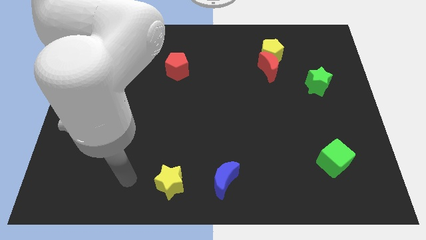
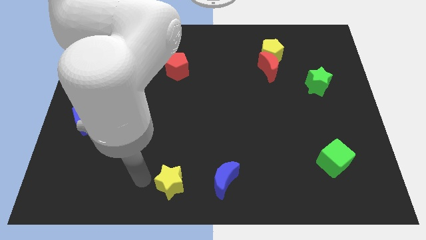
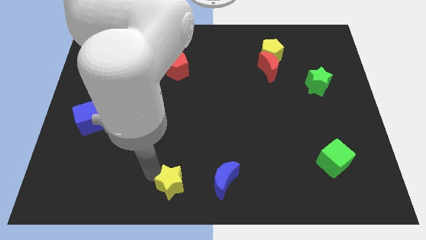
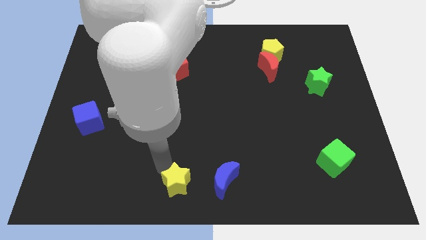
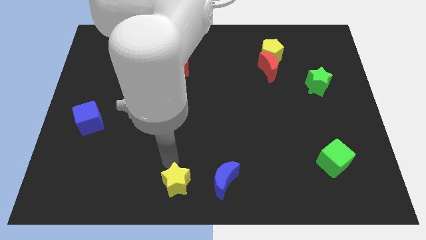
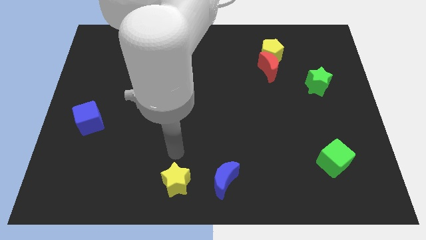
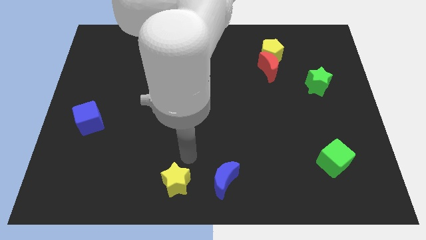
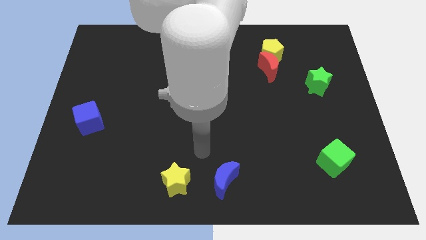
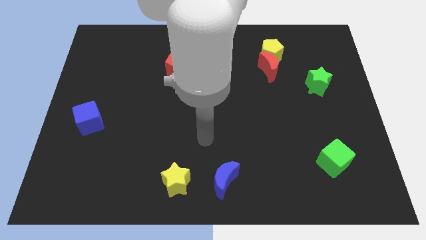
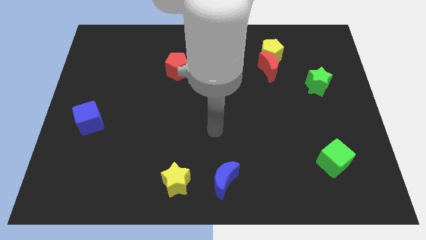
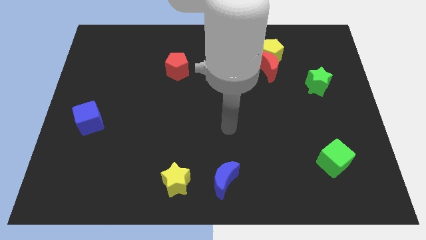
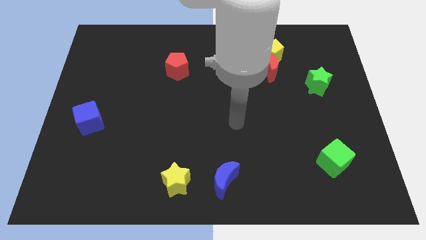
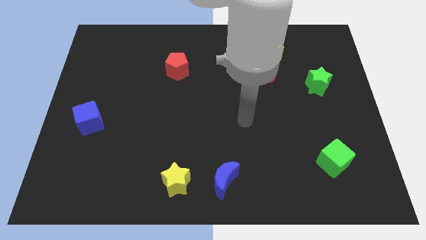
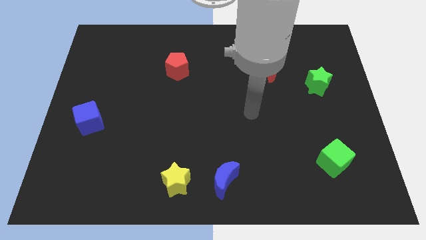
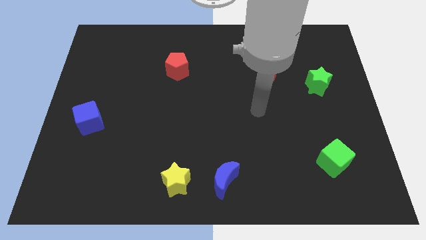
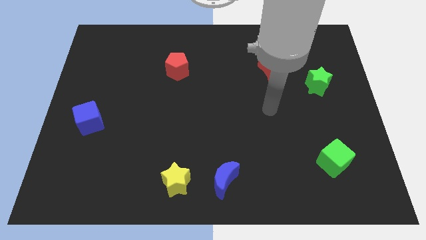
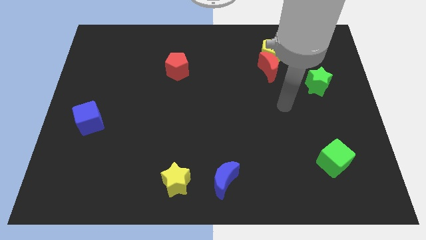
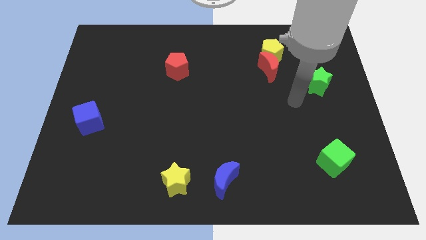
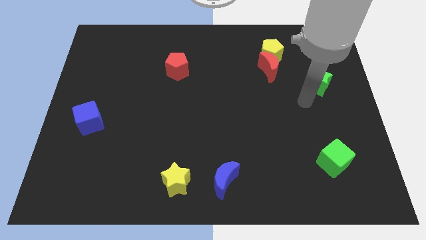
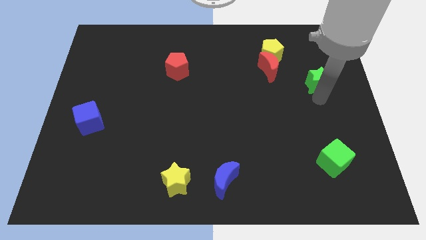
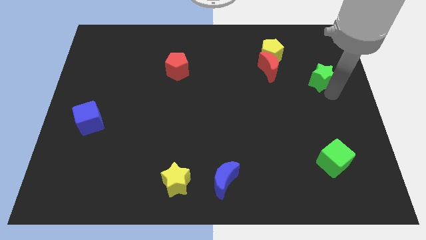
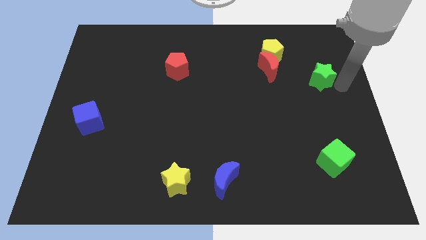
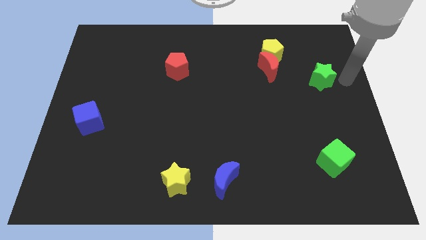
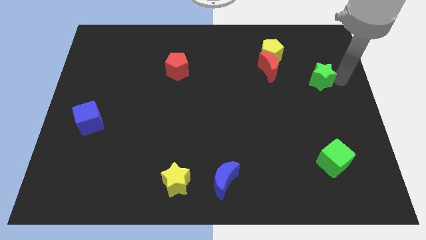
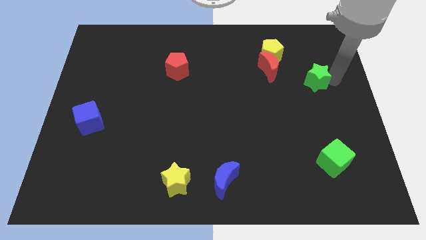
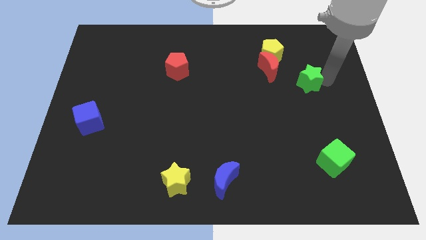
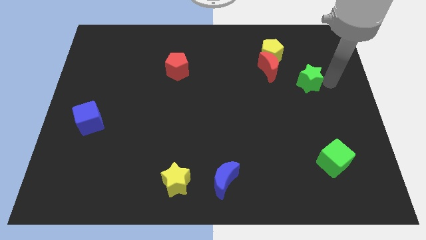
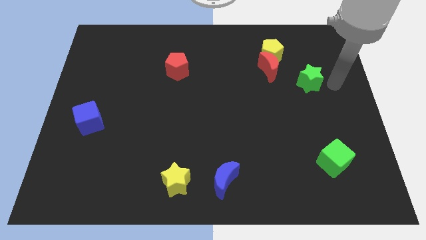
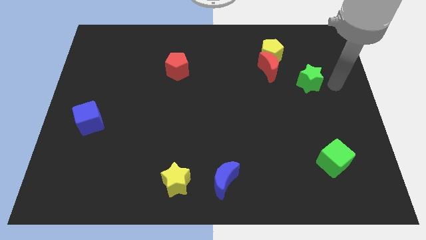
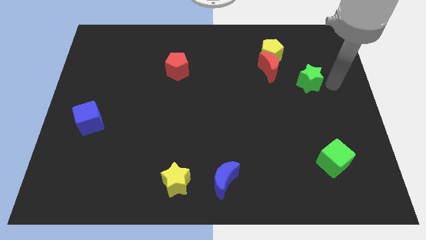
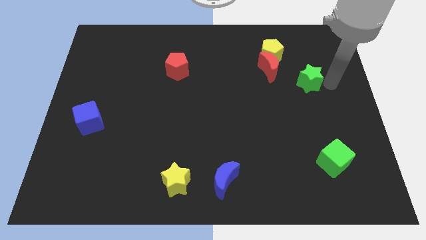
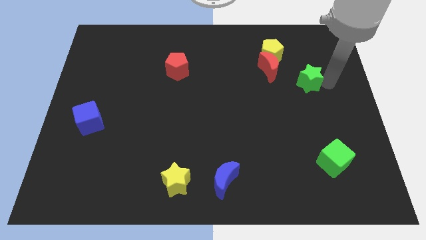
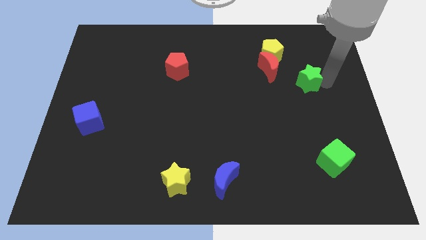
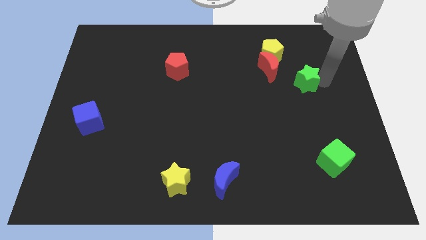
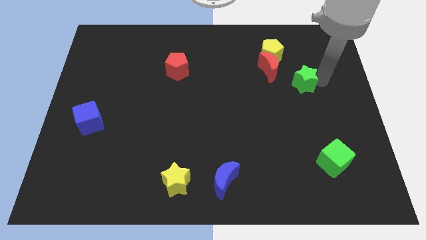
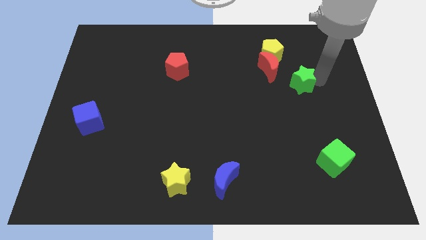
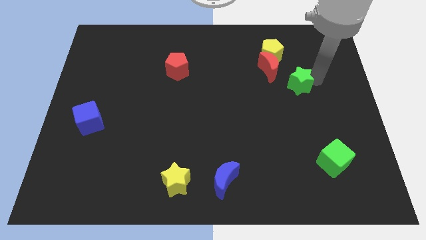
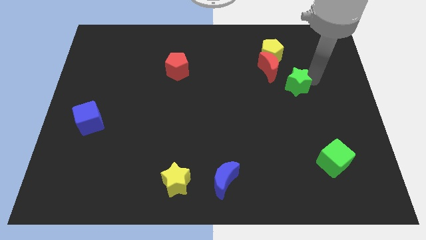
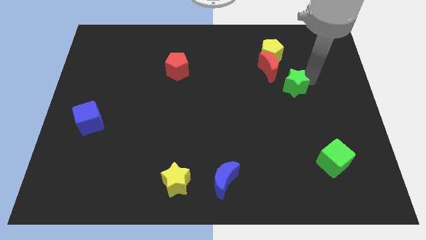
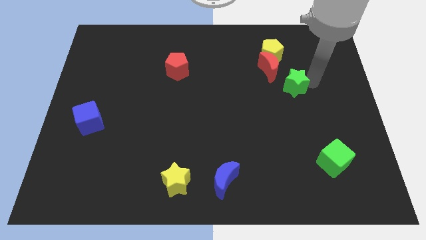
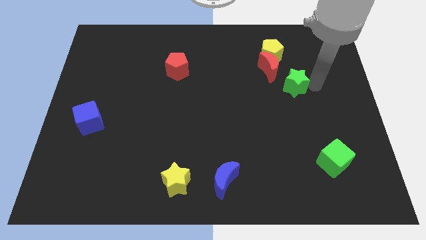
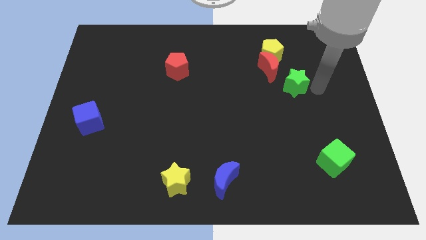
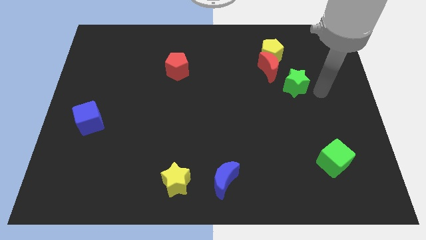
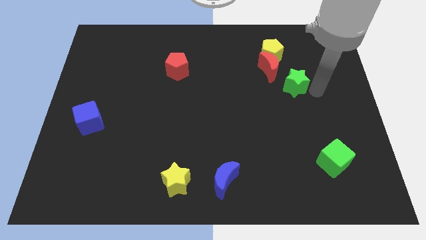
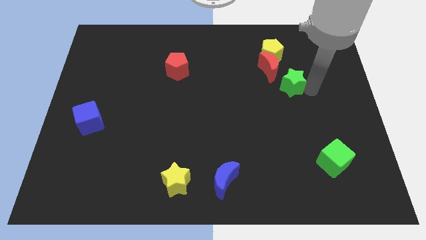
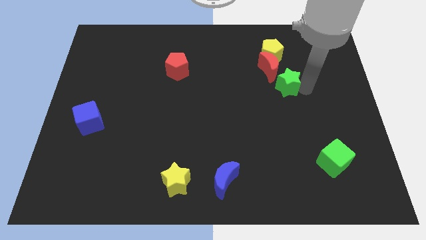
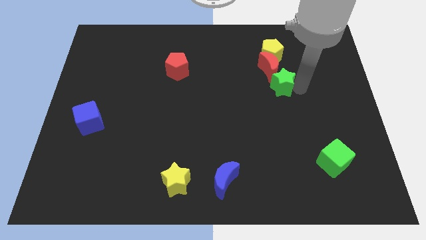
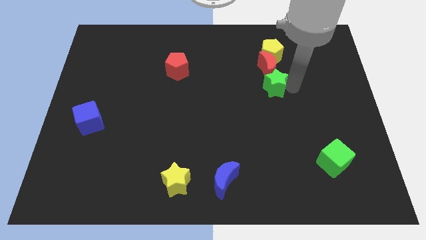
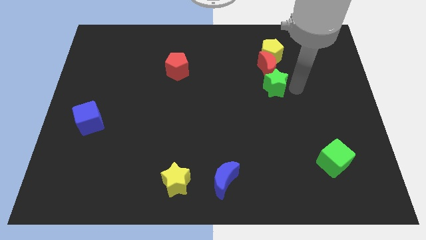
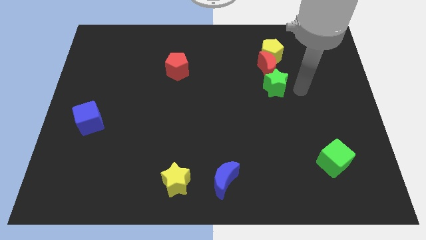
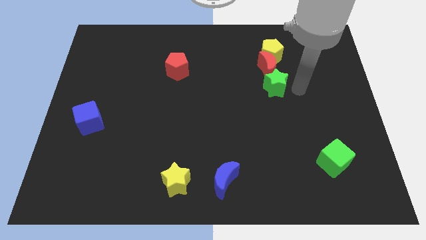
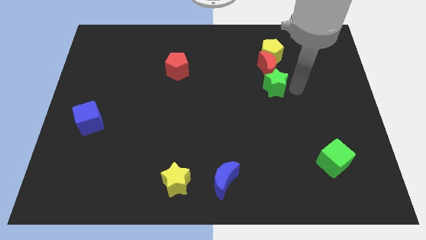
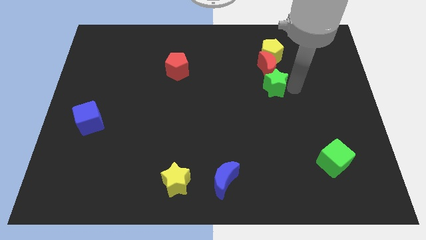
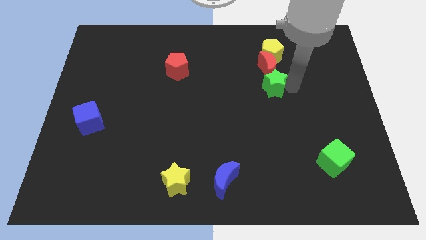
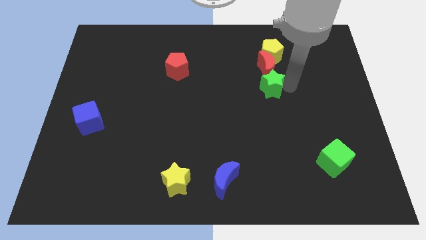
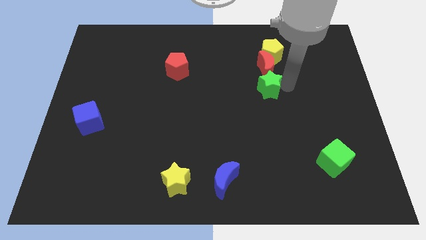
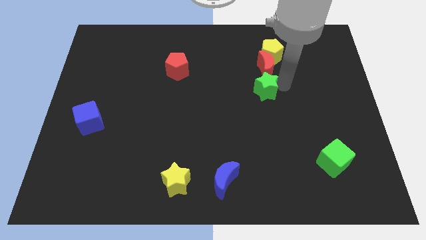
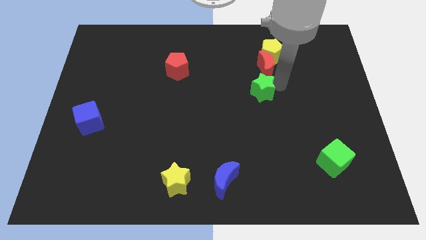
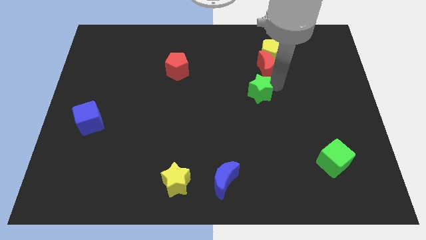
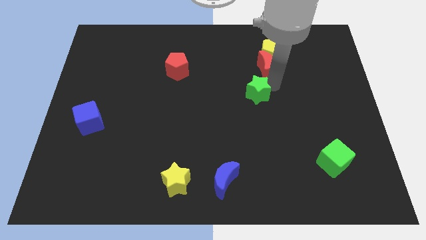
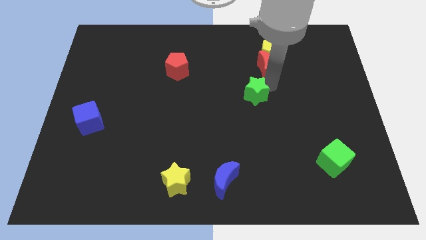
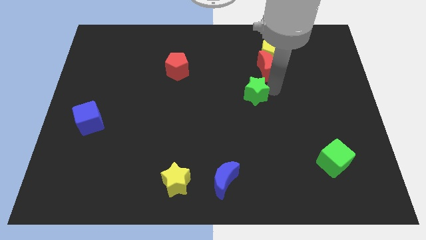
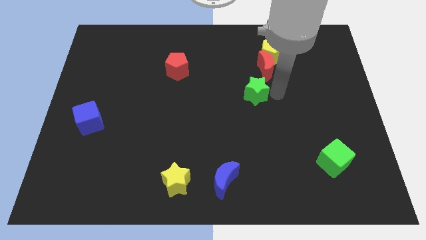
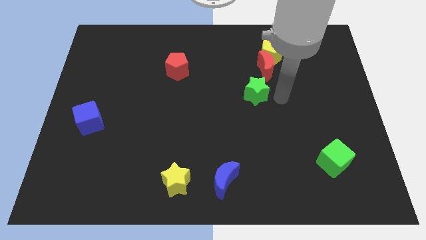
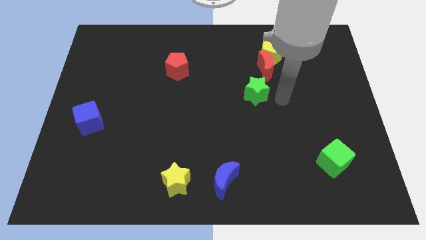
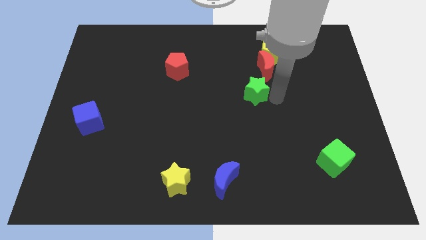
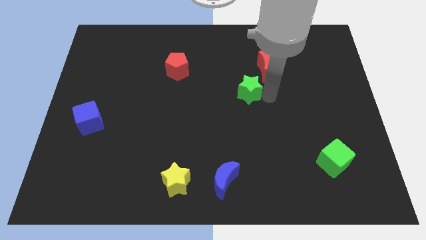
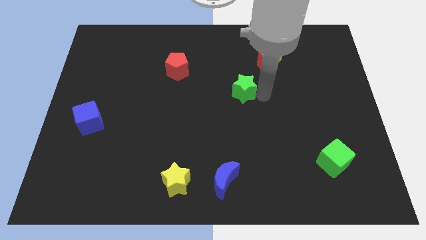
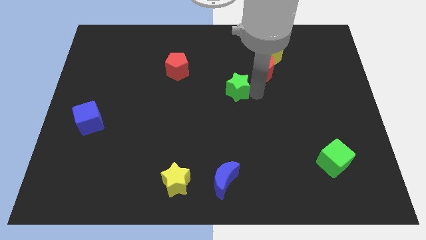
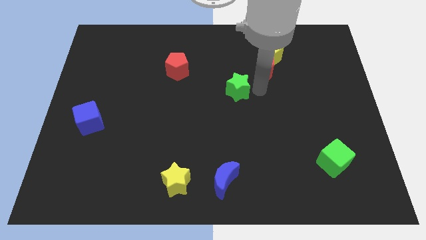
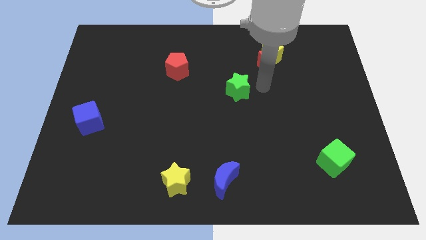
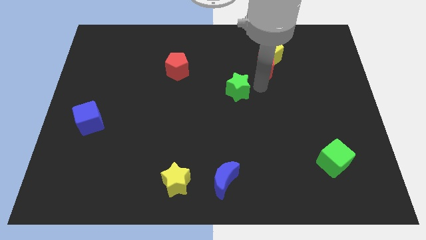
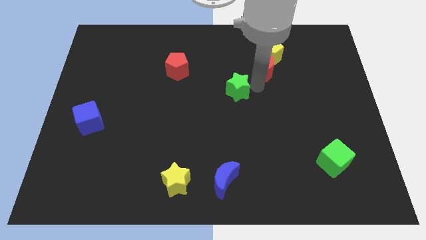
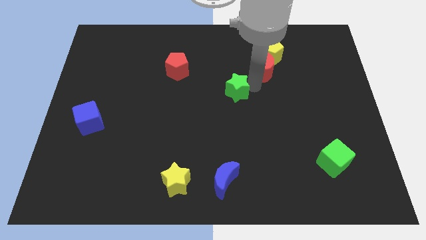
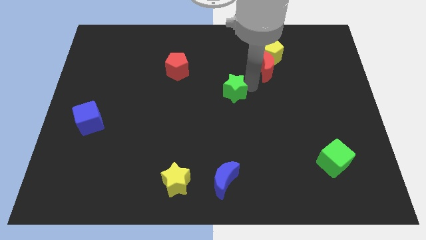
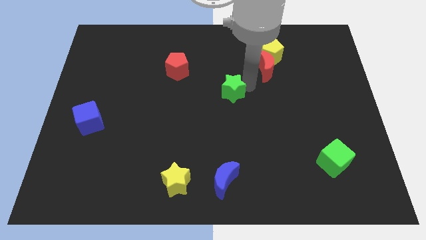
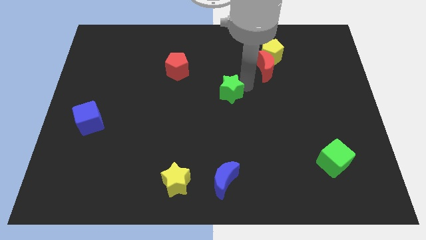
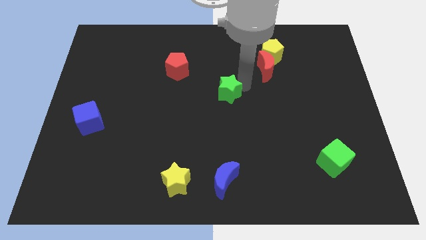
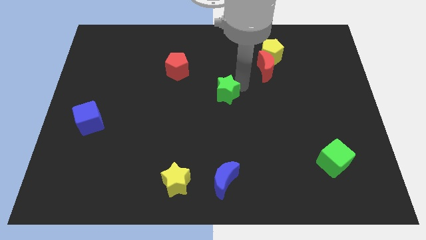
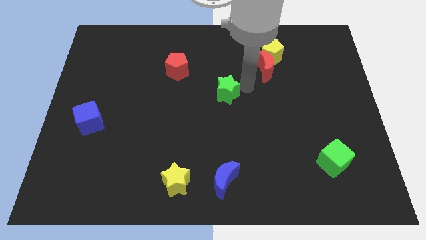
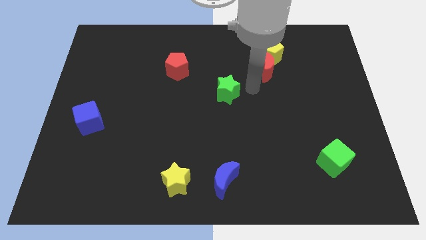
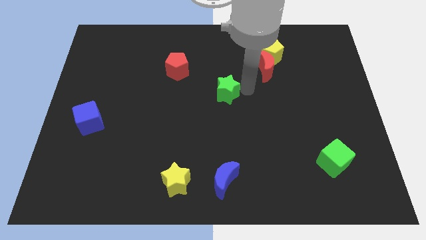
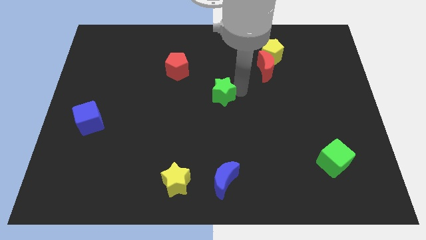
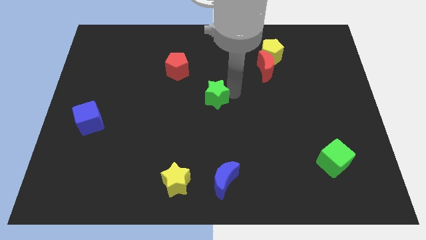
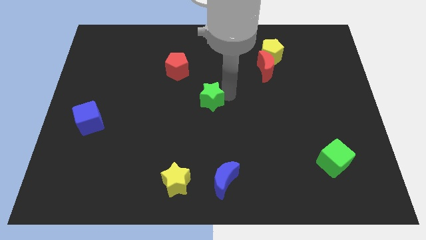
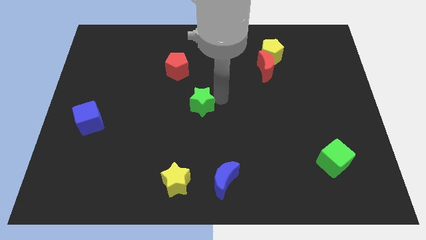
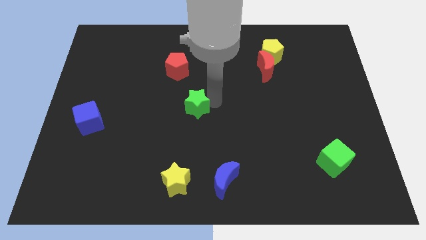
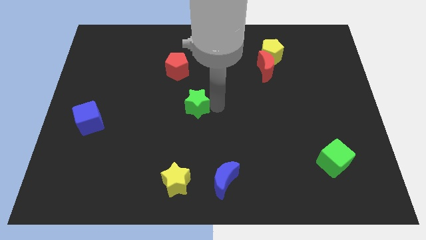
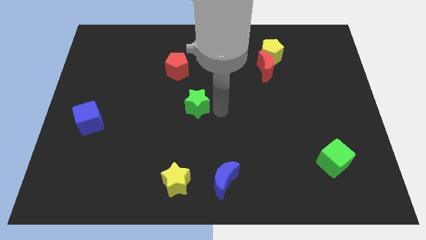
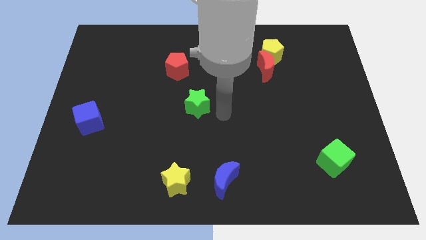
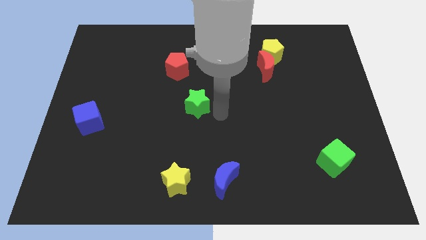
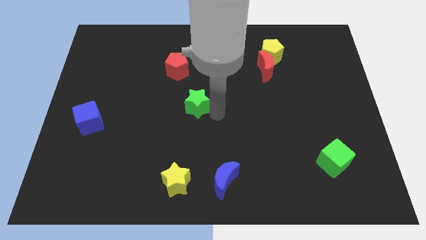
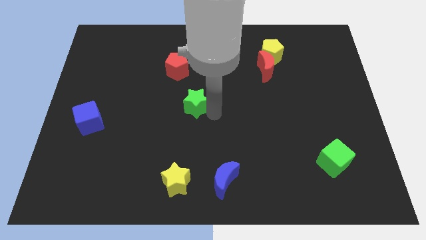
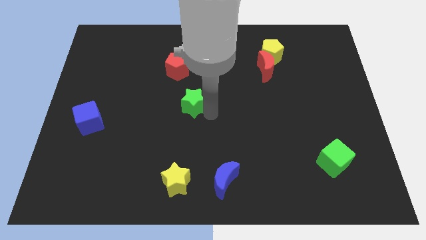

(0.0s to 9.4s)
slide the green star to the bottom of the red pentagon
